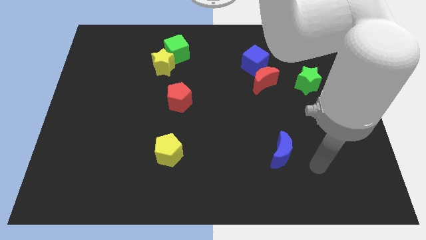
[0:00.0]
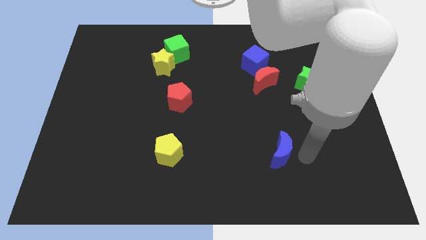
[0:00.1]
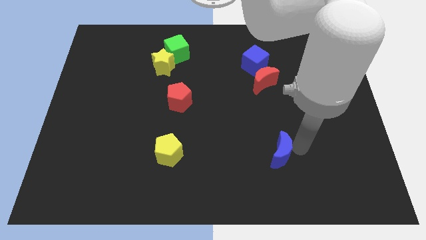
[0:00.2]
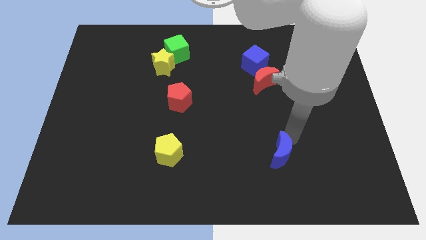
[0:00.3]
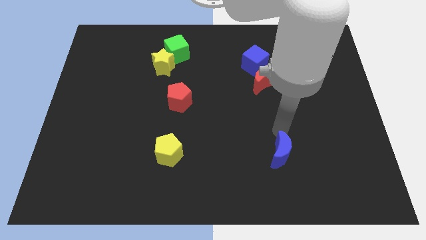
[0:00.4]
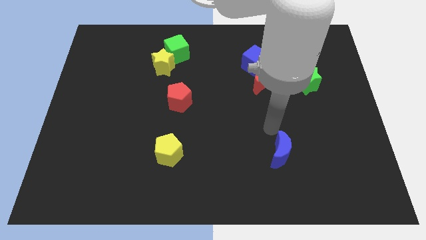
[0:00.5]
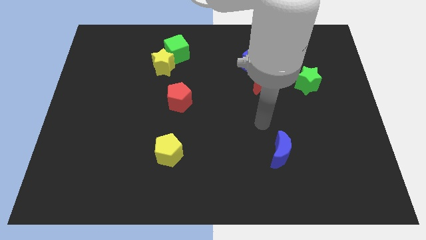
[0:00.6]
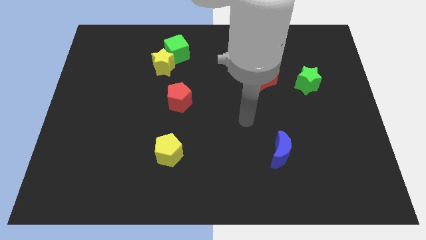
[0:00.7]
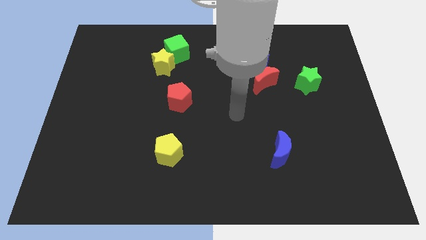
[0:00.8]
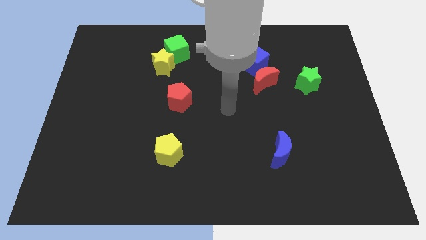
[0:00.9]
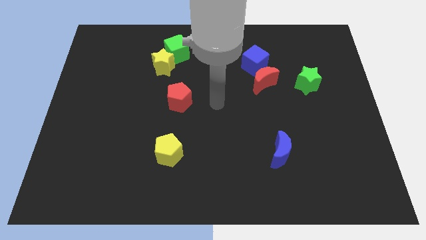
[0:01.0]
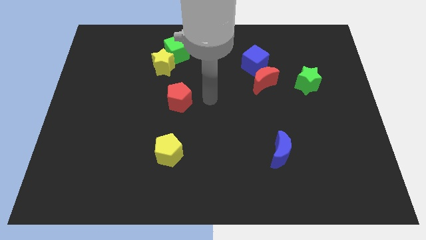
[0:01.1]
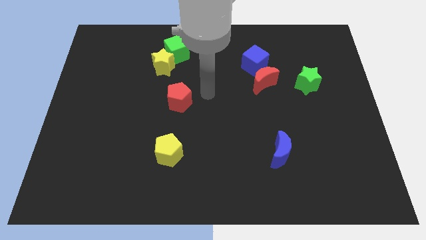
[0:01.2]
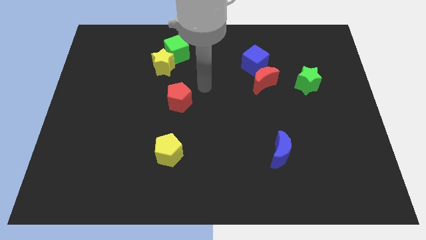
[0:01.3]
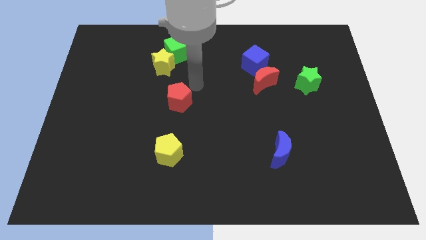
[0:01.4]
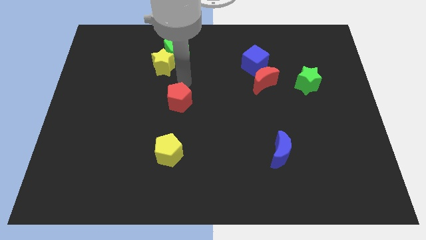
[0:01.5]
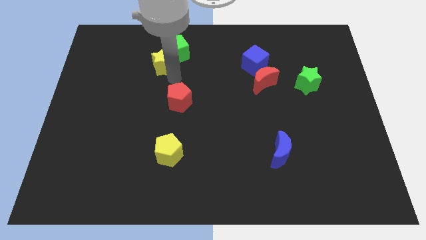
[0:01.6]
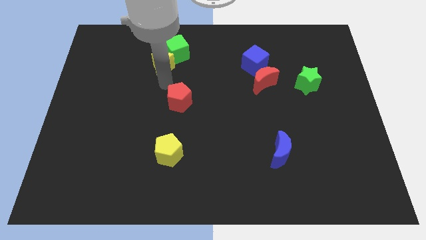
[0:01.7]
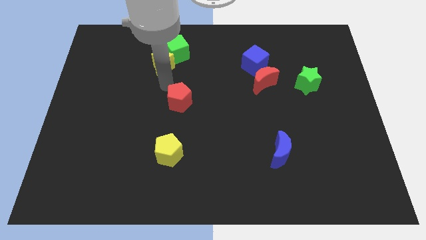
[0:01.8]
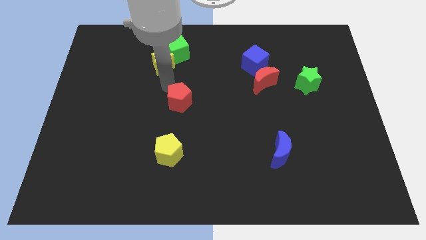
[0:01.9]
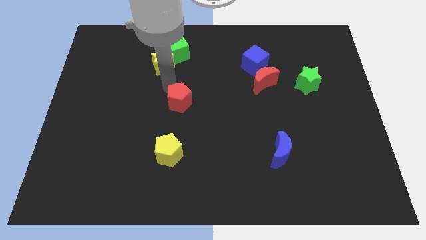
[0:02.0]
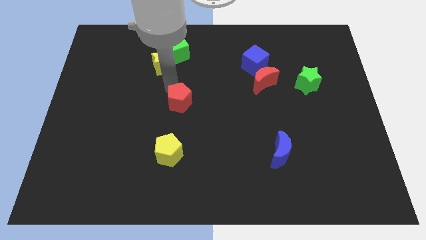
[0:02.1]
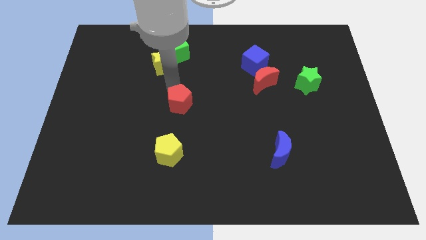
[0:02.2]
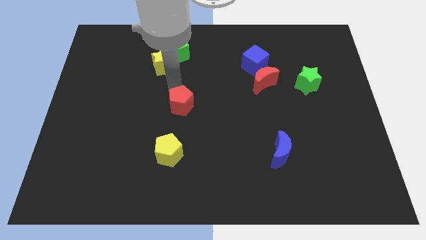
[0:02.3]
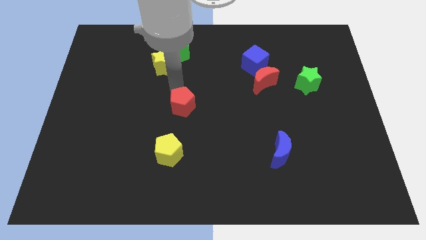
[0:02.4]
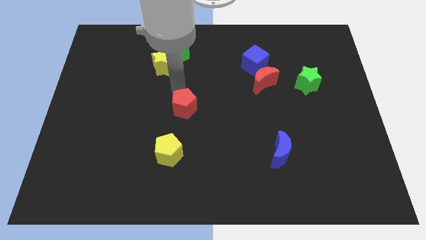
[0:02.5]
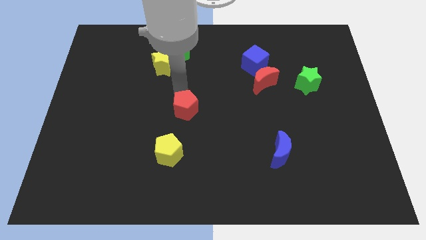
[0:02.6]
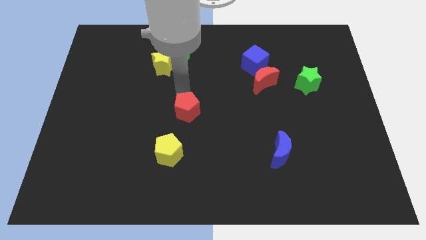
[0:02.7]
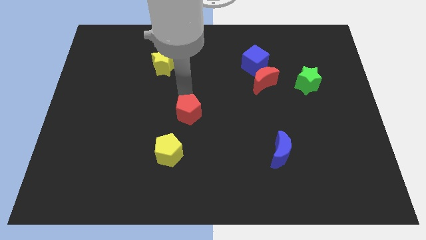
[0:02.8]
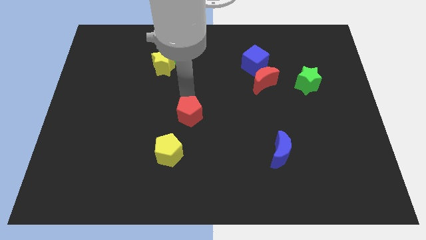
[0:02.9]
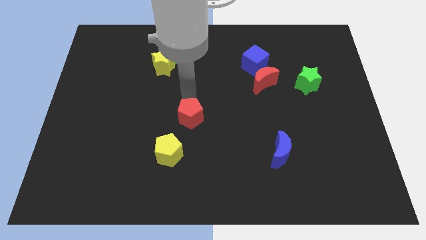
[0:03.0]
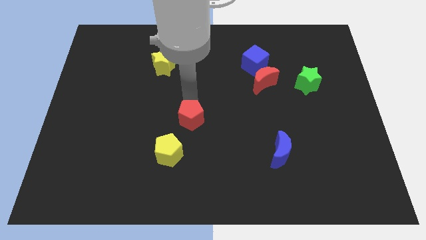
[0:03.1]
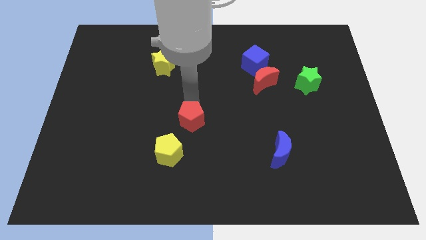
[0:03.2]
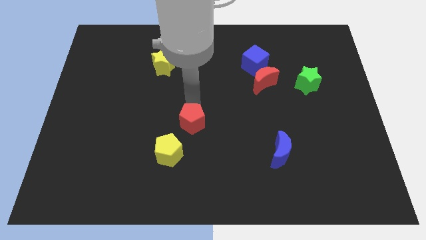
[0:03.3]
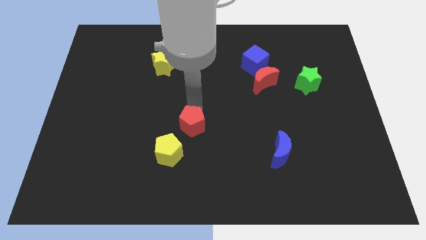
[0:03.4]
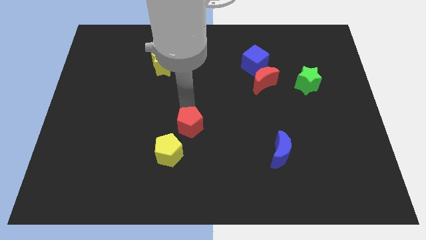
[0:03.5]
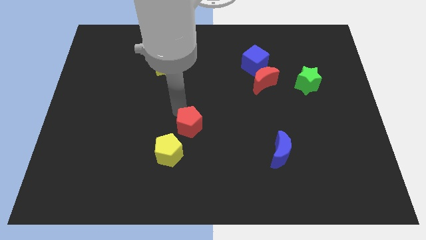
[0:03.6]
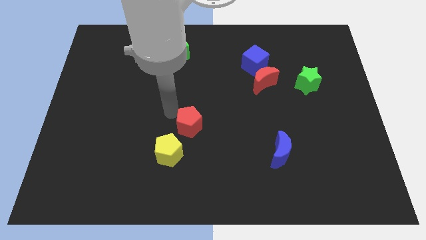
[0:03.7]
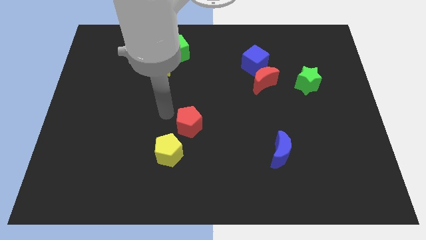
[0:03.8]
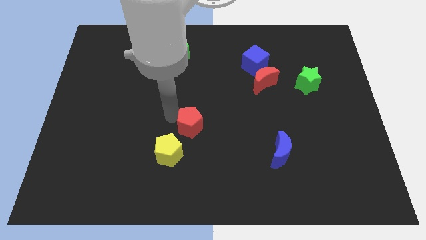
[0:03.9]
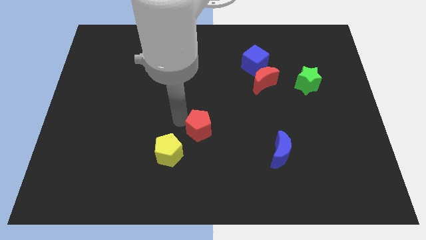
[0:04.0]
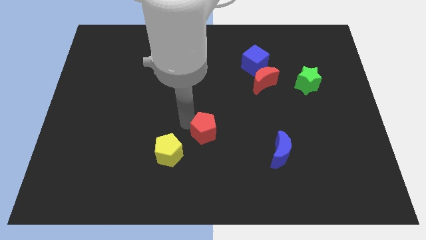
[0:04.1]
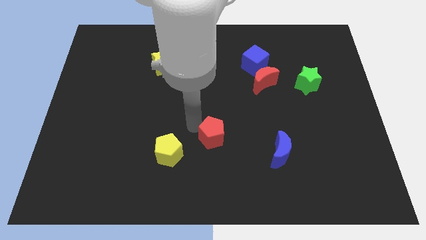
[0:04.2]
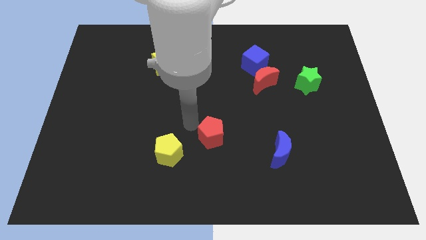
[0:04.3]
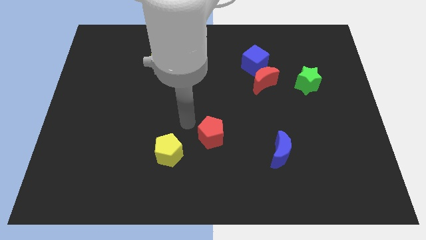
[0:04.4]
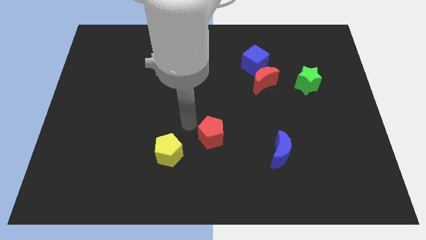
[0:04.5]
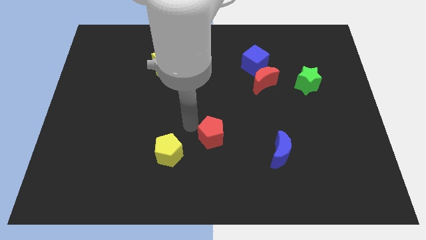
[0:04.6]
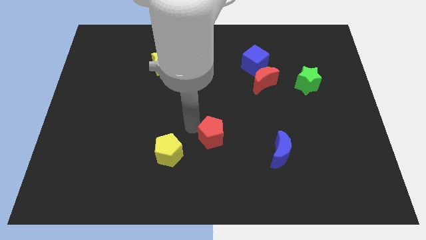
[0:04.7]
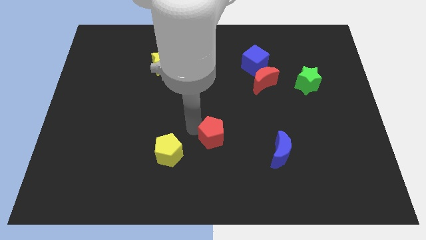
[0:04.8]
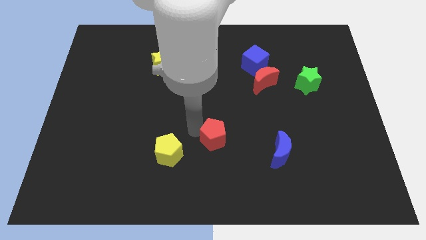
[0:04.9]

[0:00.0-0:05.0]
move the red pentagon just left of the blue moon

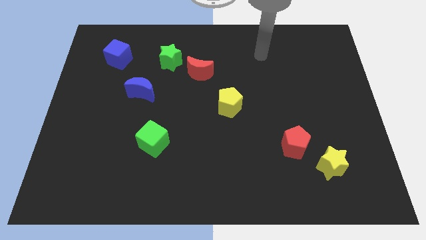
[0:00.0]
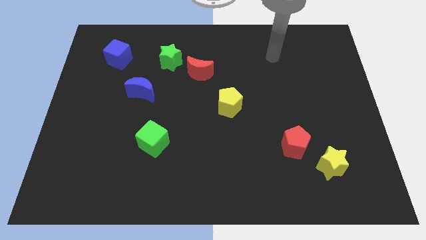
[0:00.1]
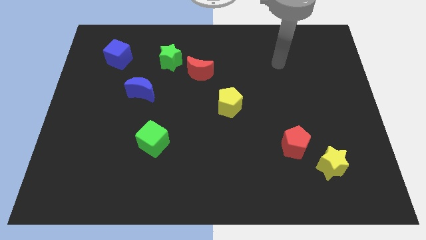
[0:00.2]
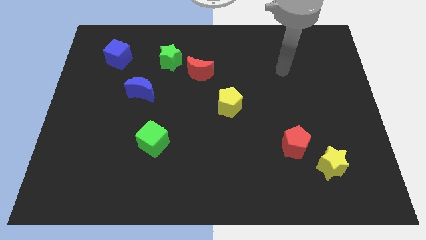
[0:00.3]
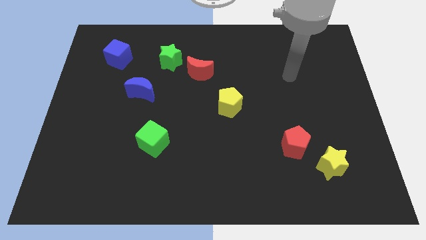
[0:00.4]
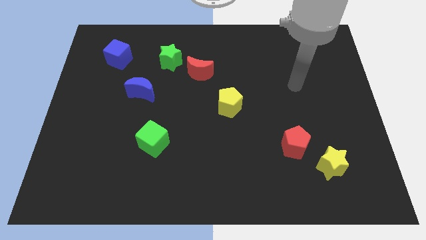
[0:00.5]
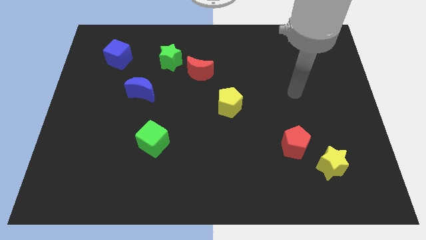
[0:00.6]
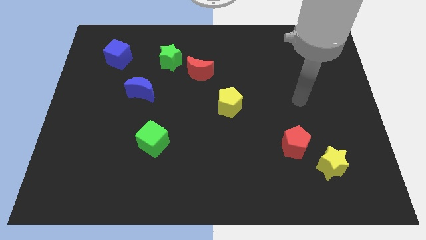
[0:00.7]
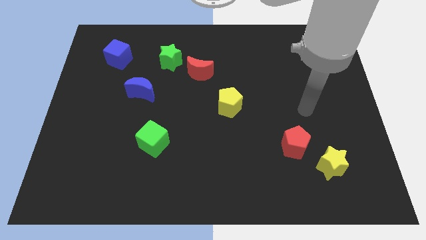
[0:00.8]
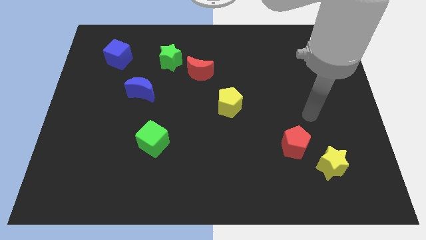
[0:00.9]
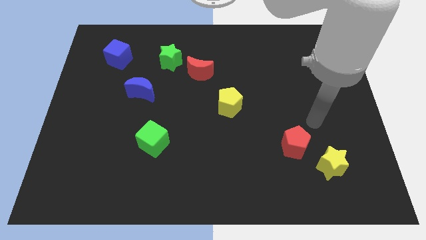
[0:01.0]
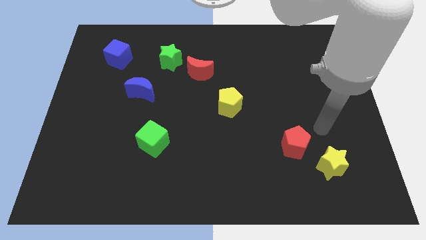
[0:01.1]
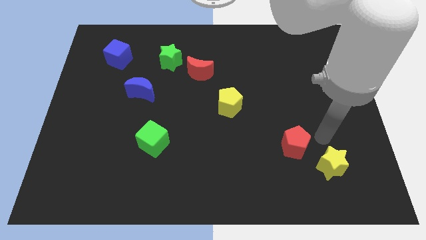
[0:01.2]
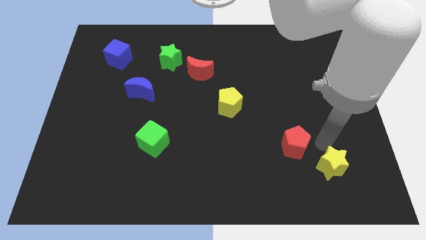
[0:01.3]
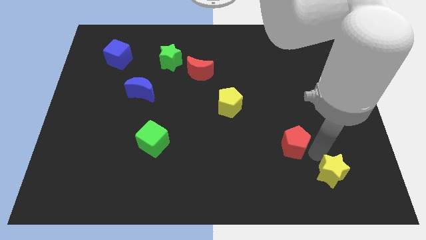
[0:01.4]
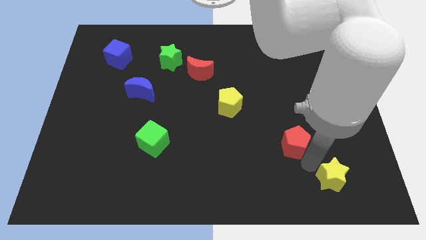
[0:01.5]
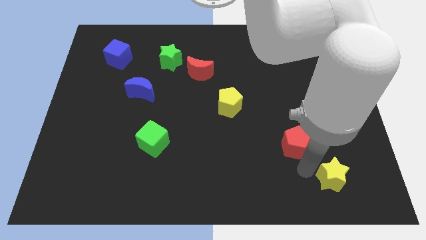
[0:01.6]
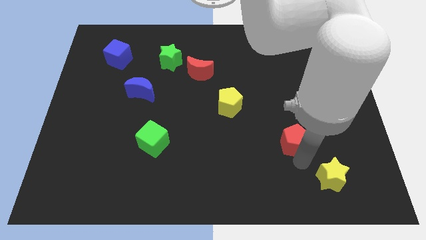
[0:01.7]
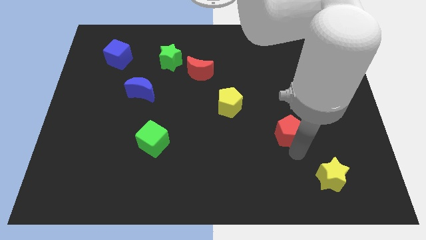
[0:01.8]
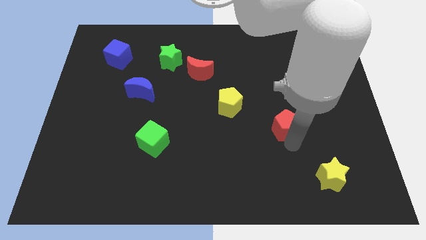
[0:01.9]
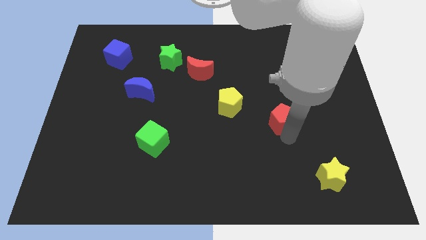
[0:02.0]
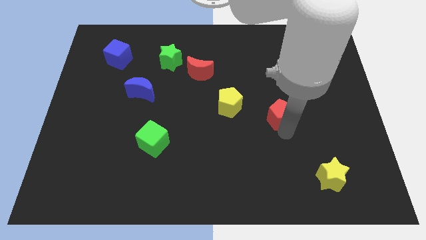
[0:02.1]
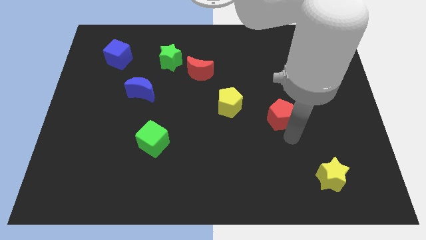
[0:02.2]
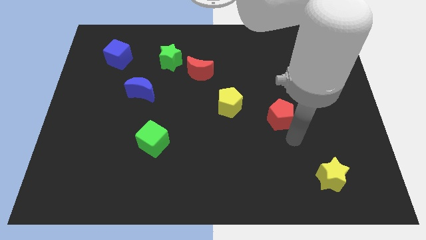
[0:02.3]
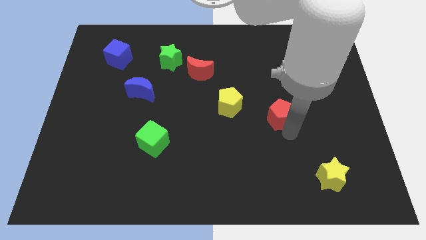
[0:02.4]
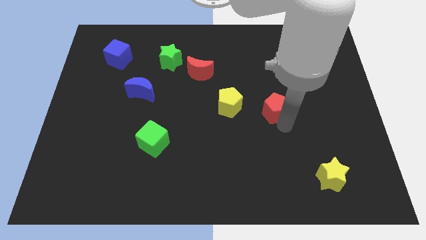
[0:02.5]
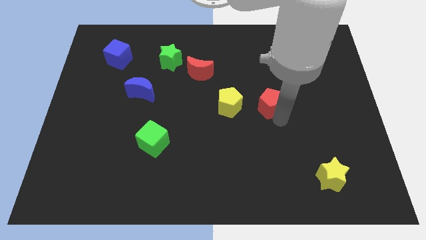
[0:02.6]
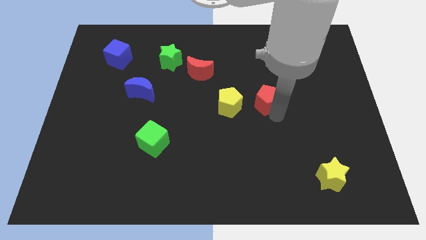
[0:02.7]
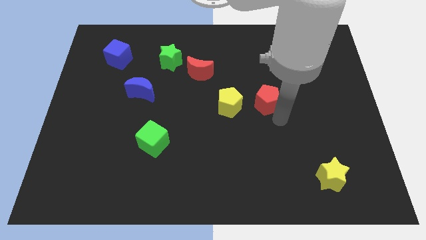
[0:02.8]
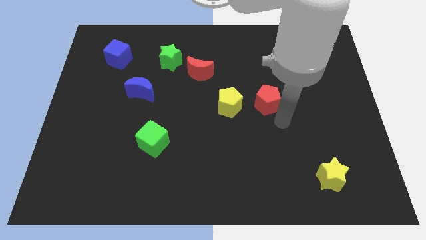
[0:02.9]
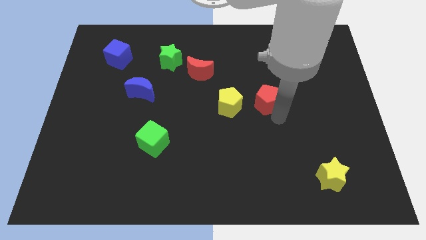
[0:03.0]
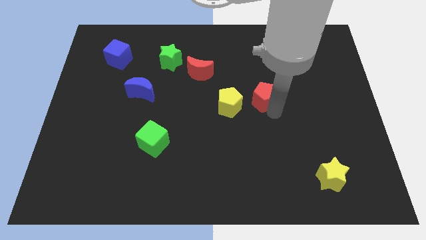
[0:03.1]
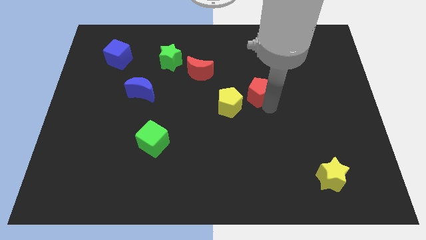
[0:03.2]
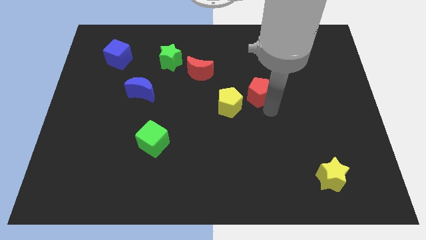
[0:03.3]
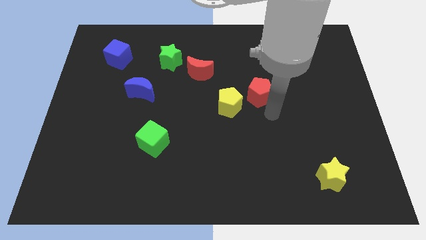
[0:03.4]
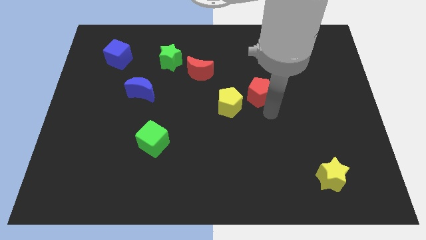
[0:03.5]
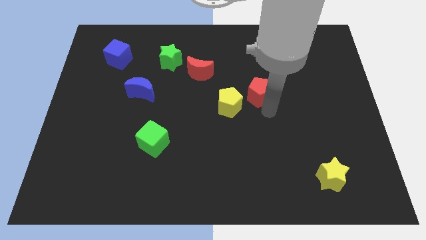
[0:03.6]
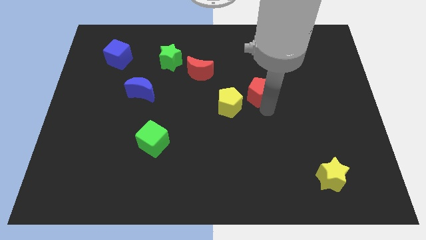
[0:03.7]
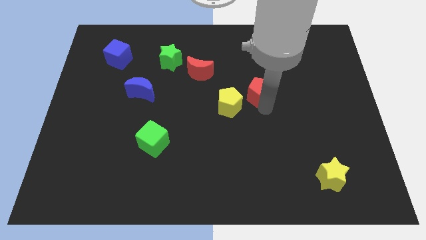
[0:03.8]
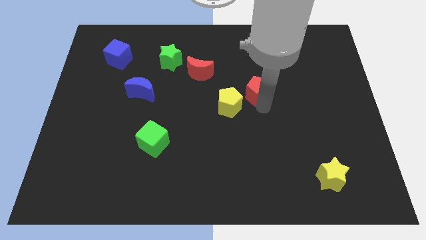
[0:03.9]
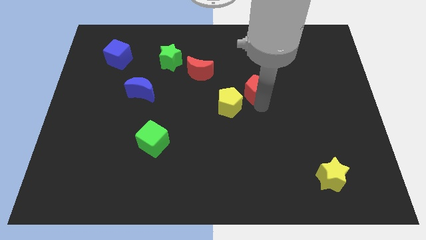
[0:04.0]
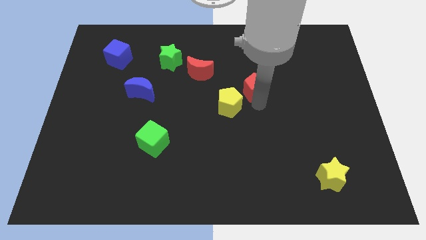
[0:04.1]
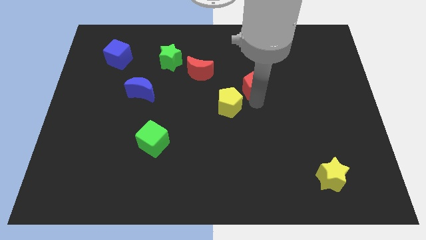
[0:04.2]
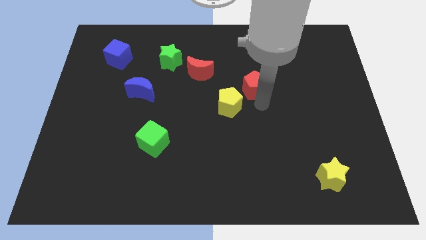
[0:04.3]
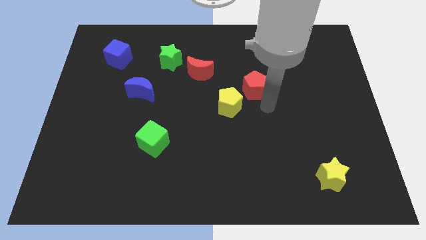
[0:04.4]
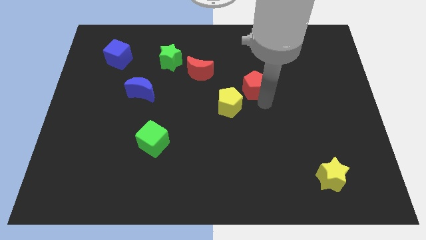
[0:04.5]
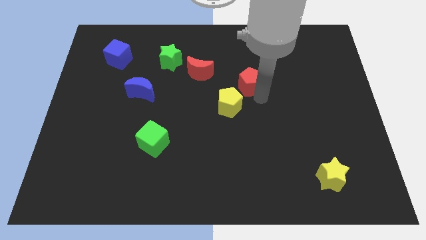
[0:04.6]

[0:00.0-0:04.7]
move the red pentagon just right of the red moon
